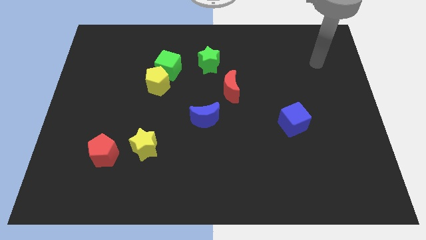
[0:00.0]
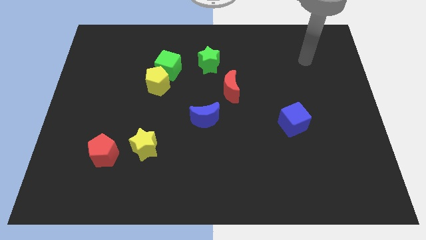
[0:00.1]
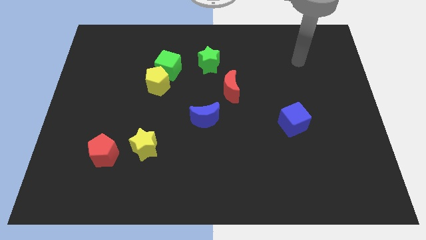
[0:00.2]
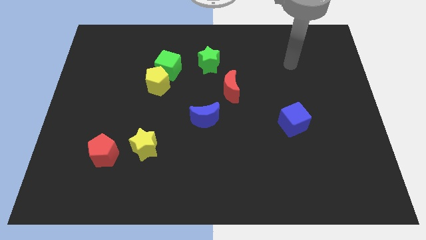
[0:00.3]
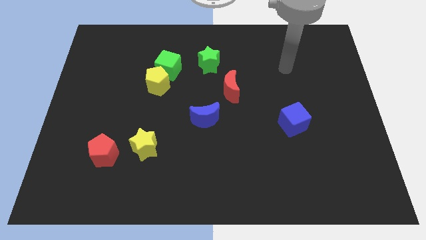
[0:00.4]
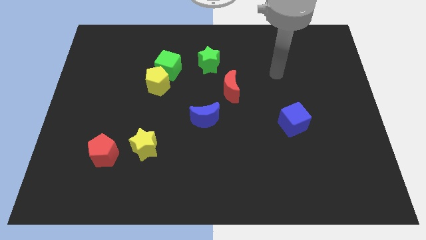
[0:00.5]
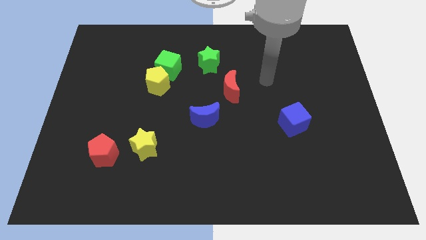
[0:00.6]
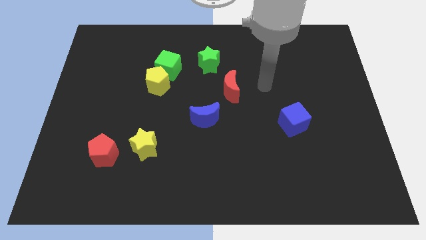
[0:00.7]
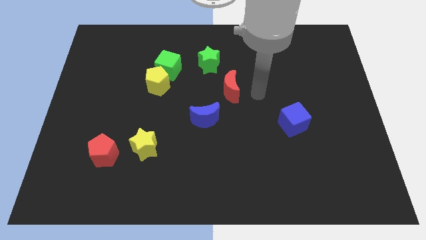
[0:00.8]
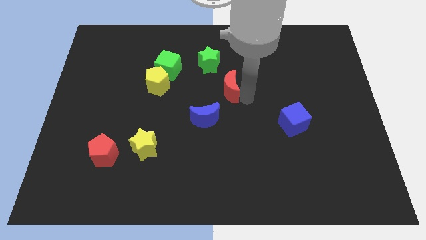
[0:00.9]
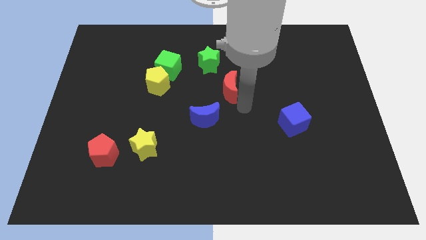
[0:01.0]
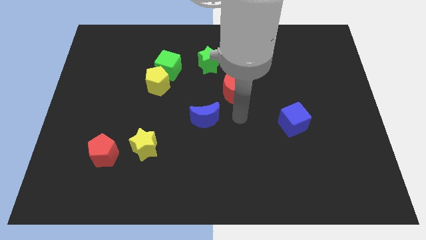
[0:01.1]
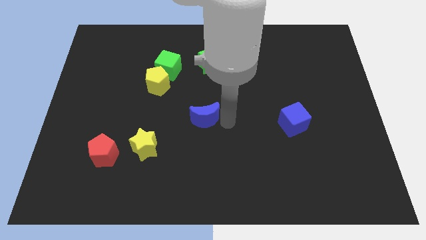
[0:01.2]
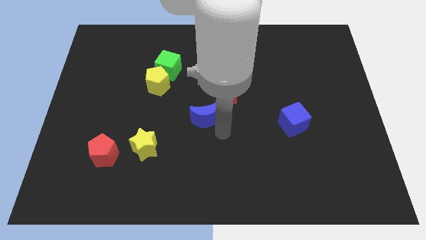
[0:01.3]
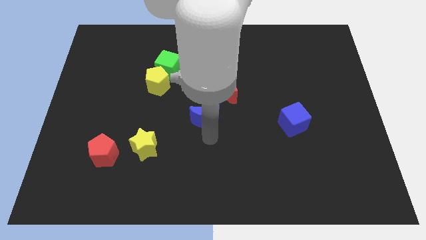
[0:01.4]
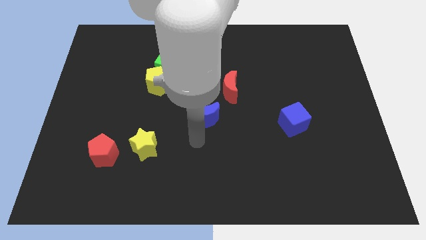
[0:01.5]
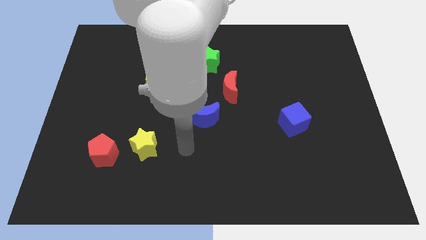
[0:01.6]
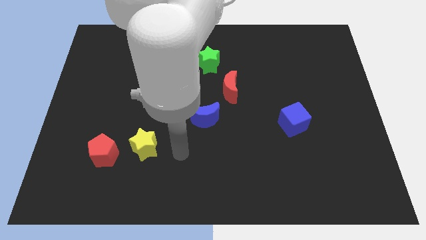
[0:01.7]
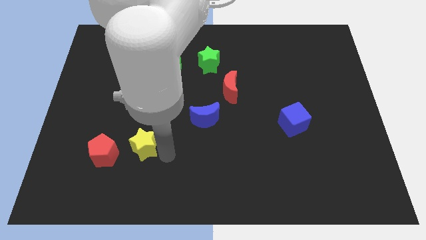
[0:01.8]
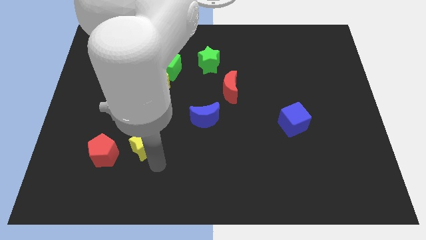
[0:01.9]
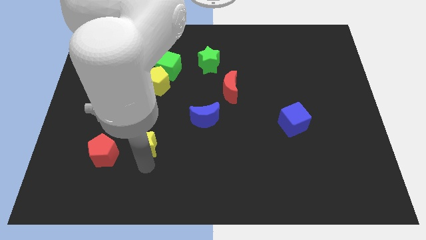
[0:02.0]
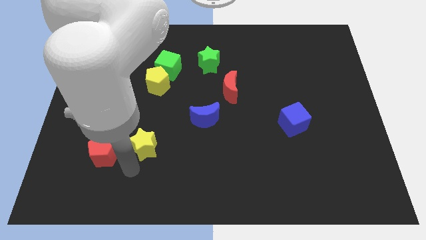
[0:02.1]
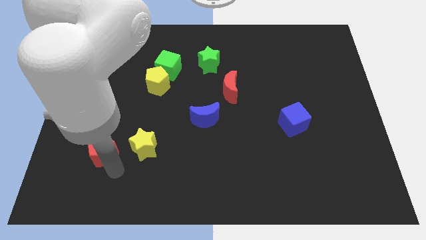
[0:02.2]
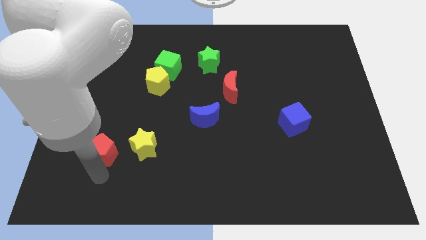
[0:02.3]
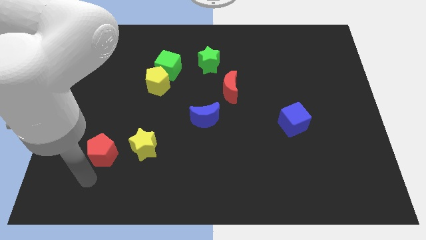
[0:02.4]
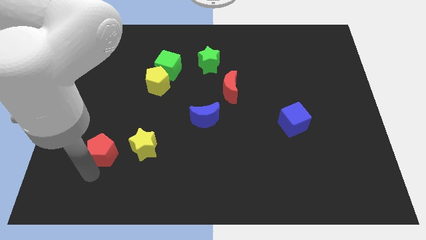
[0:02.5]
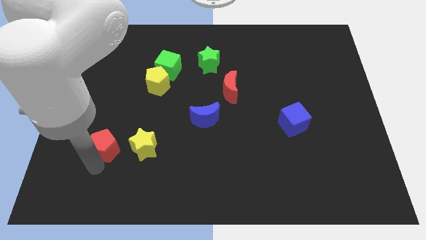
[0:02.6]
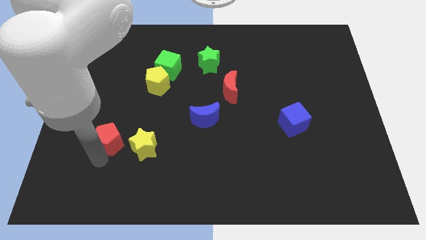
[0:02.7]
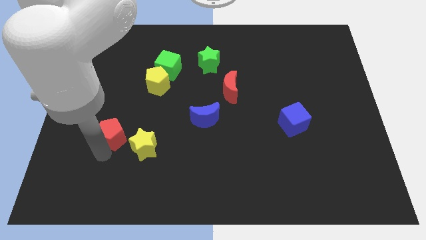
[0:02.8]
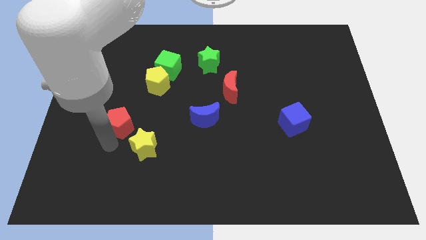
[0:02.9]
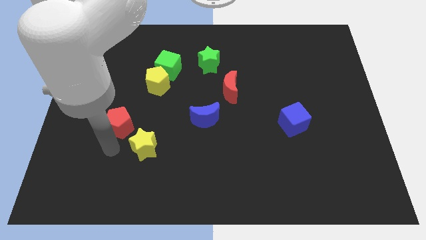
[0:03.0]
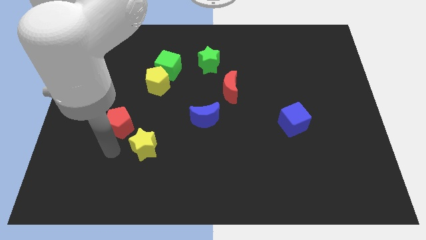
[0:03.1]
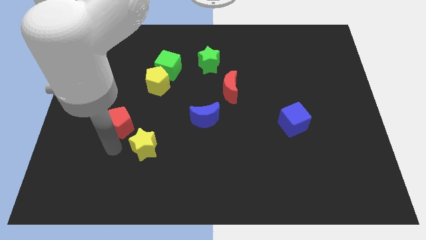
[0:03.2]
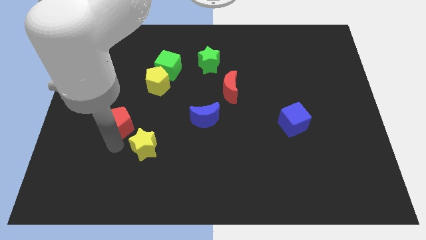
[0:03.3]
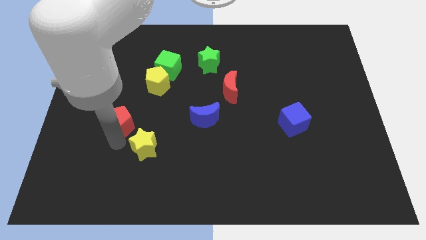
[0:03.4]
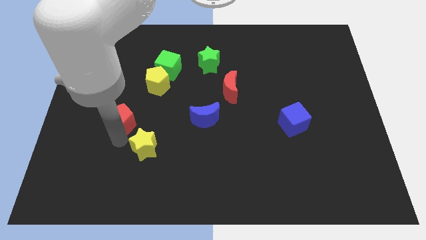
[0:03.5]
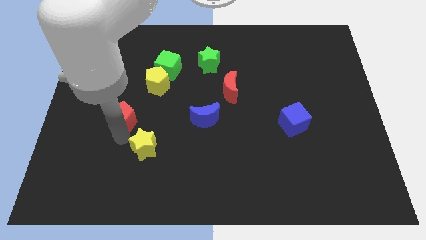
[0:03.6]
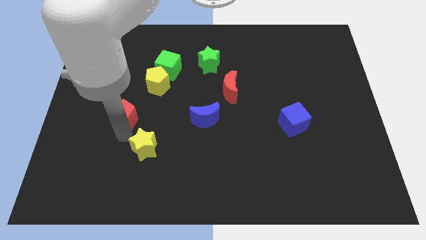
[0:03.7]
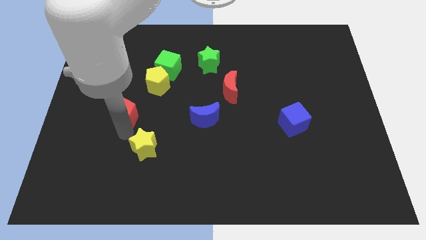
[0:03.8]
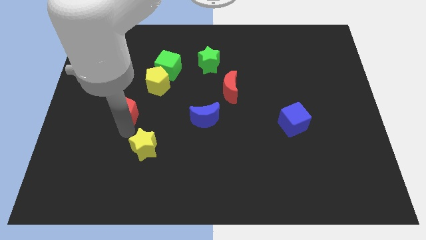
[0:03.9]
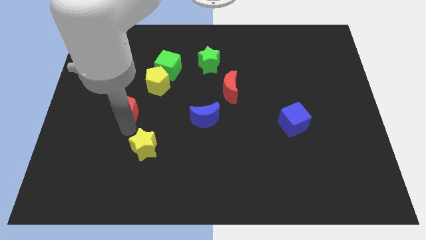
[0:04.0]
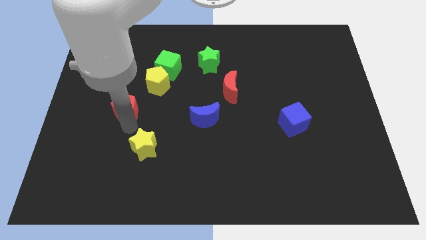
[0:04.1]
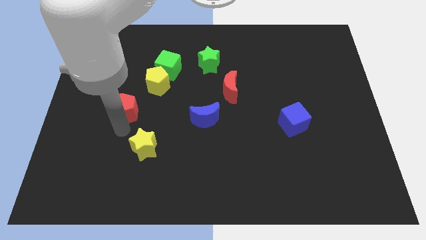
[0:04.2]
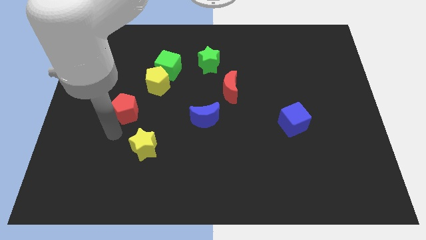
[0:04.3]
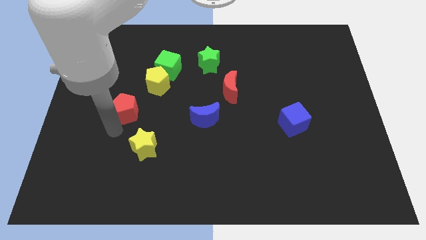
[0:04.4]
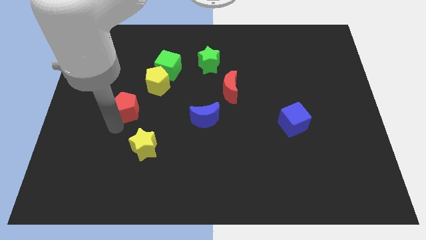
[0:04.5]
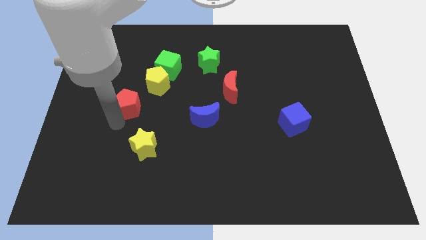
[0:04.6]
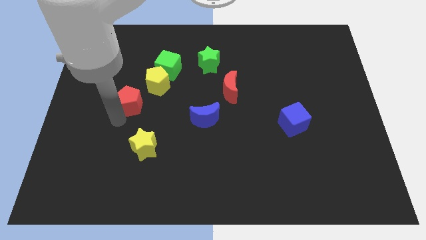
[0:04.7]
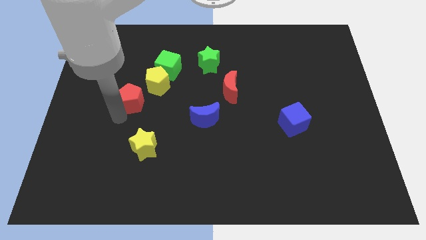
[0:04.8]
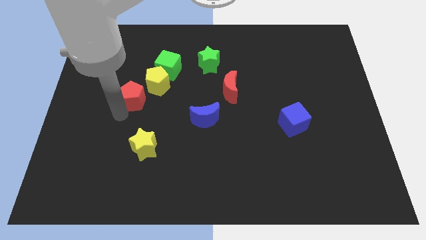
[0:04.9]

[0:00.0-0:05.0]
slide the red pentagon diagonally down and to the left of the green cube

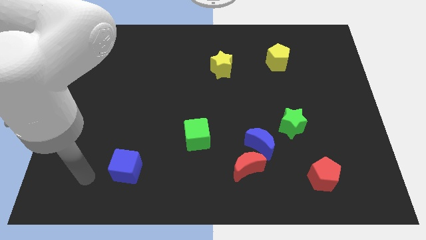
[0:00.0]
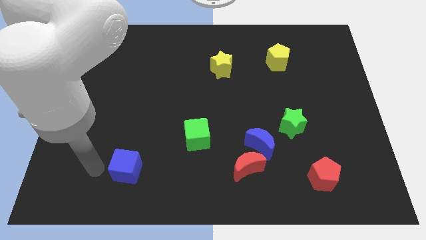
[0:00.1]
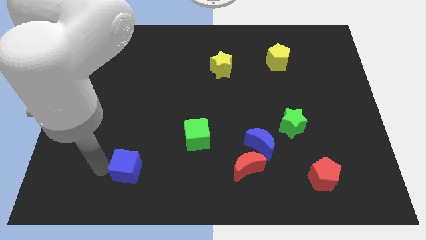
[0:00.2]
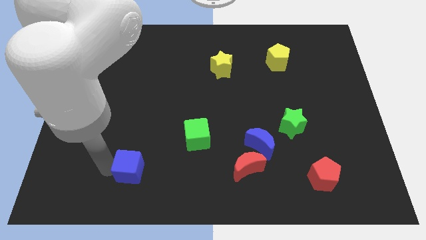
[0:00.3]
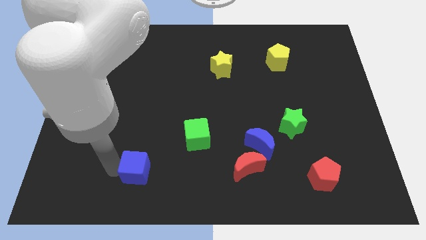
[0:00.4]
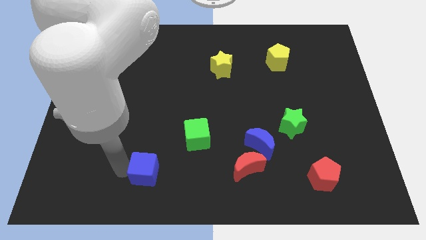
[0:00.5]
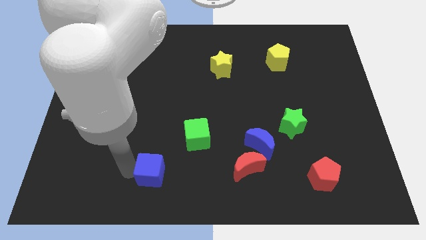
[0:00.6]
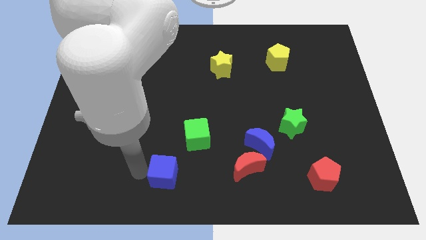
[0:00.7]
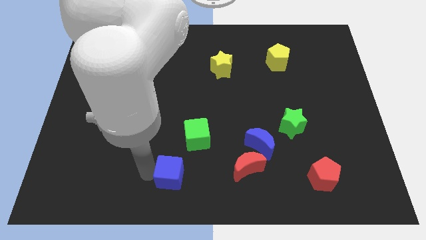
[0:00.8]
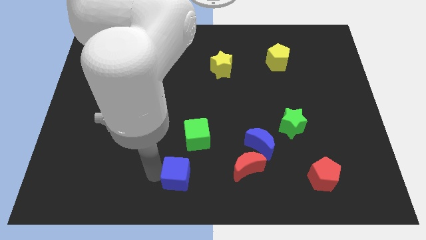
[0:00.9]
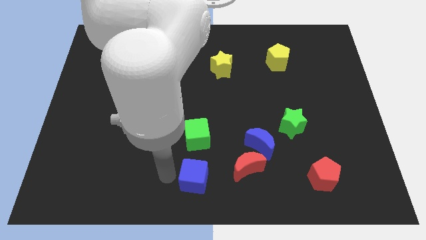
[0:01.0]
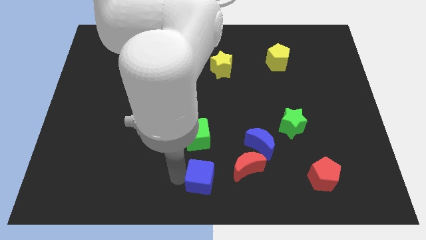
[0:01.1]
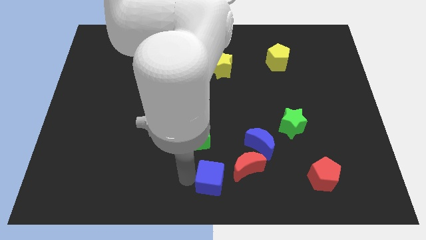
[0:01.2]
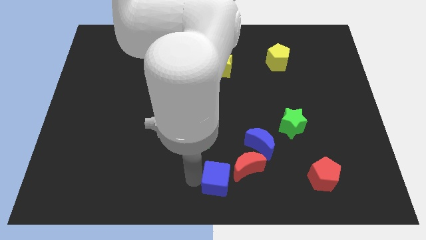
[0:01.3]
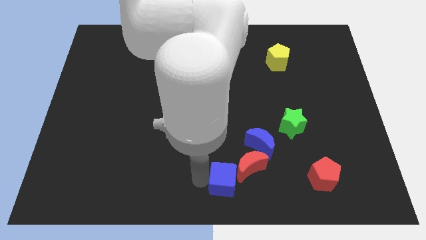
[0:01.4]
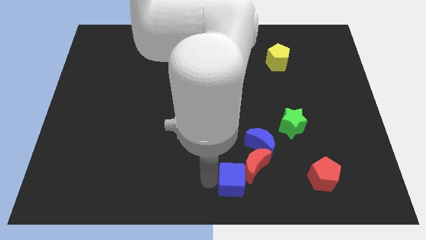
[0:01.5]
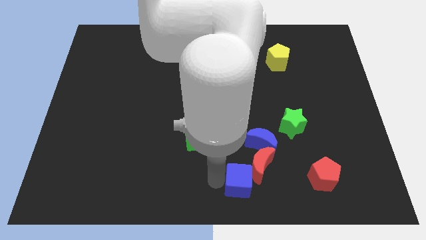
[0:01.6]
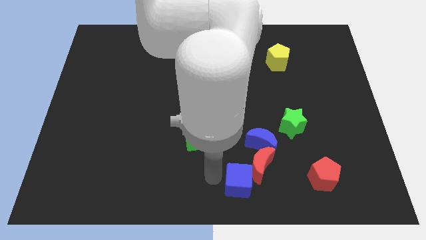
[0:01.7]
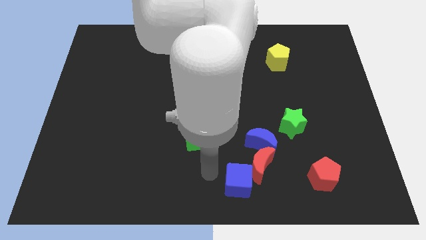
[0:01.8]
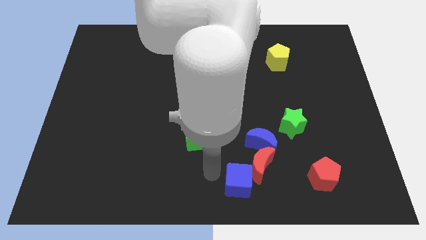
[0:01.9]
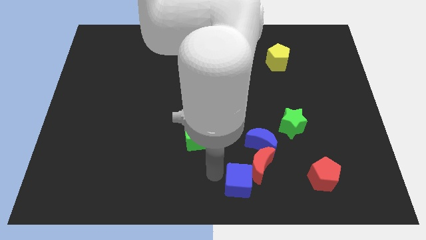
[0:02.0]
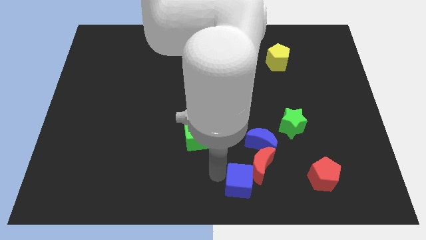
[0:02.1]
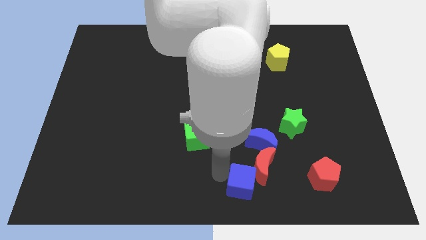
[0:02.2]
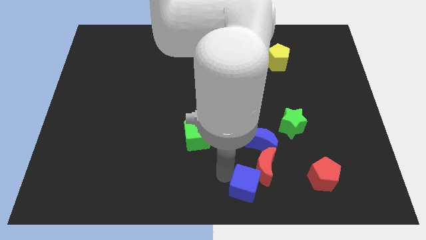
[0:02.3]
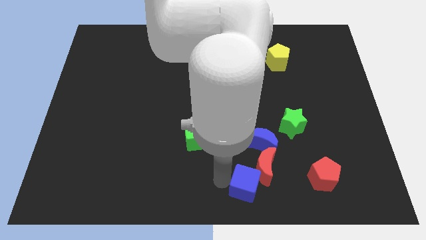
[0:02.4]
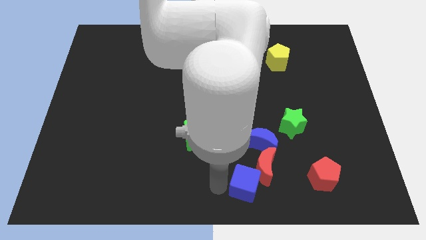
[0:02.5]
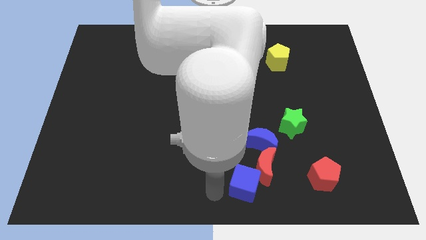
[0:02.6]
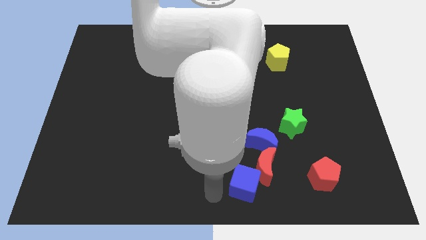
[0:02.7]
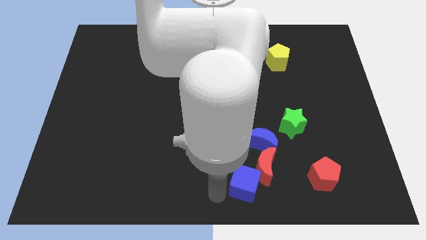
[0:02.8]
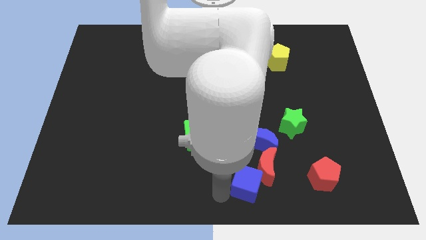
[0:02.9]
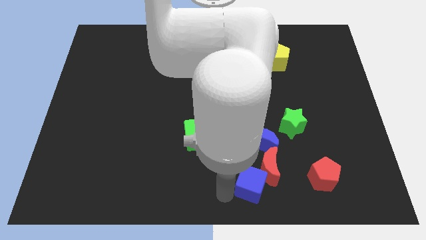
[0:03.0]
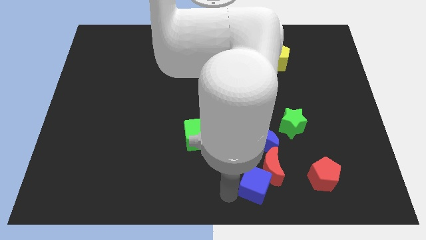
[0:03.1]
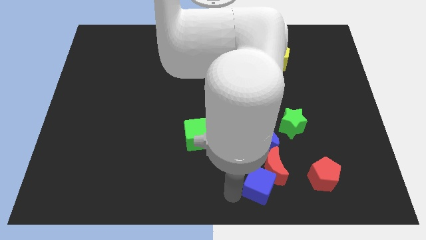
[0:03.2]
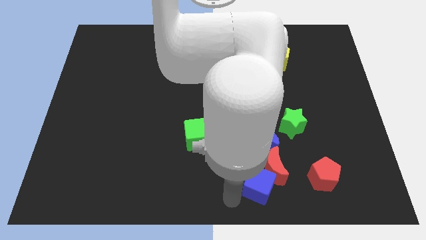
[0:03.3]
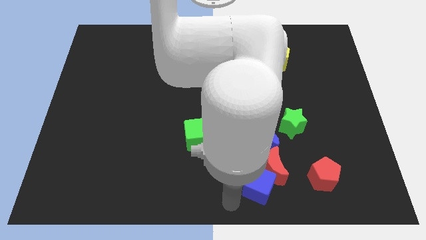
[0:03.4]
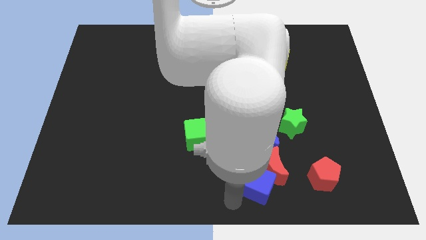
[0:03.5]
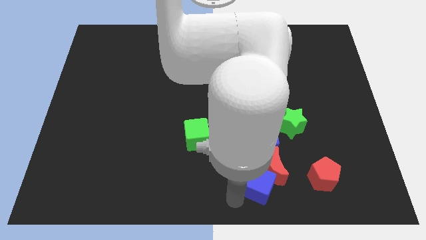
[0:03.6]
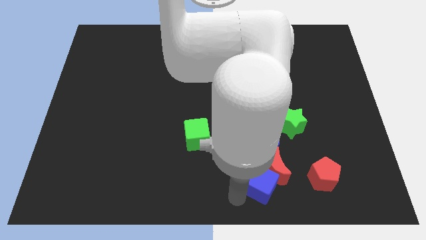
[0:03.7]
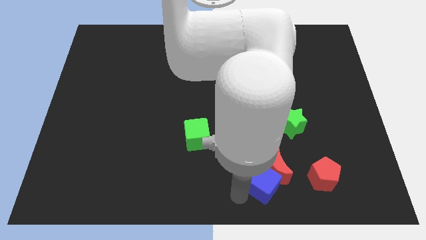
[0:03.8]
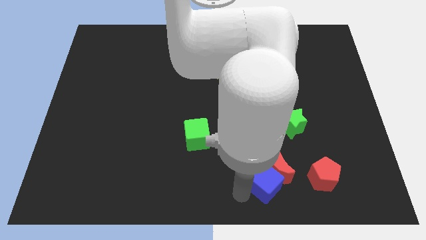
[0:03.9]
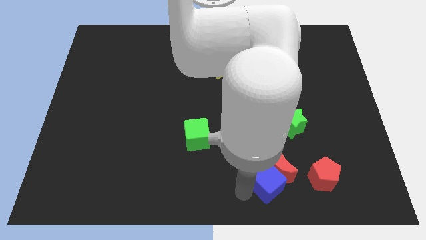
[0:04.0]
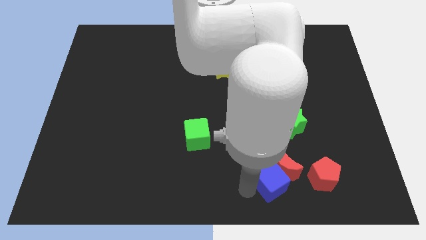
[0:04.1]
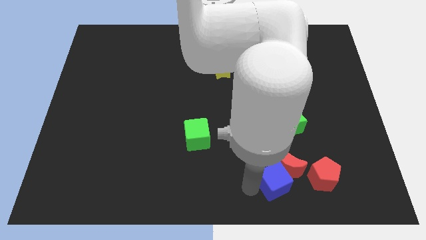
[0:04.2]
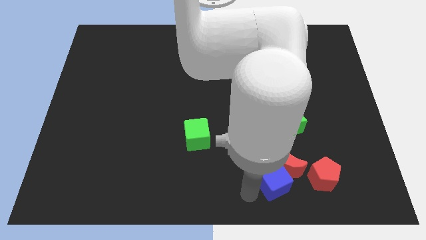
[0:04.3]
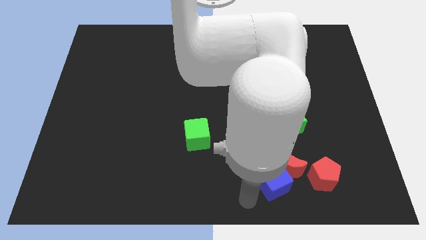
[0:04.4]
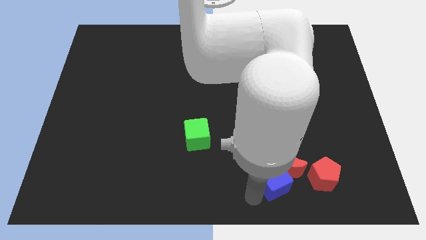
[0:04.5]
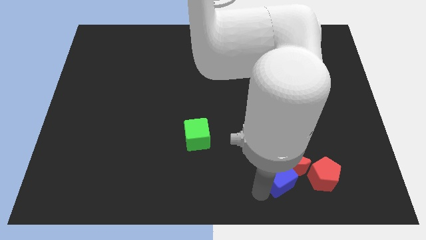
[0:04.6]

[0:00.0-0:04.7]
slide the blue cube below the green star
